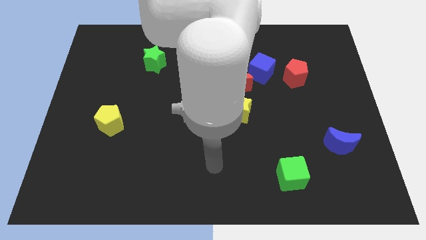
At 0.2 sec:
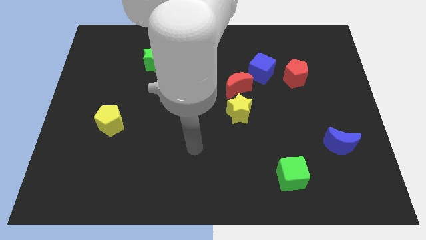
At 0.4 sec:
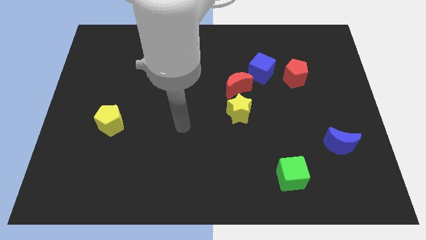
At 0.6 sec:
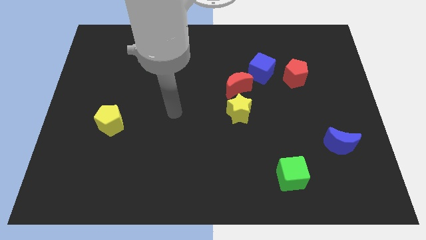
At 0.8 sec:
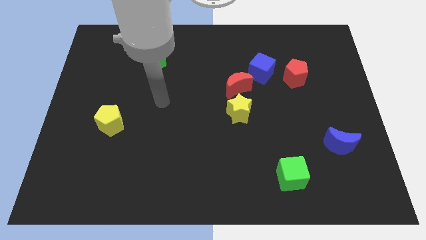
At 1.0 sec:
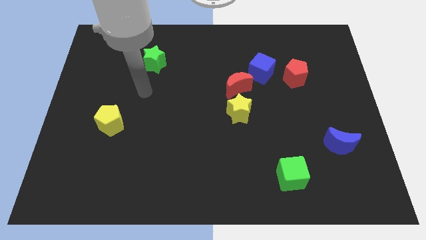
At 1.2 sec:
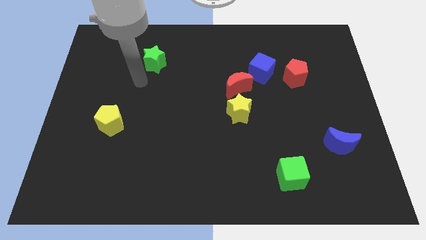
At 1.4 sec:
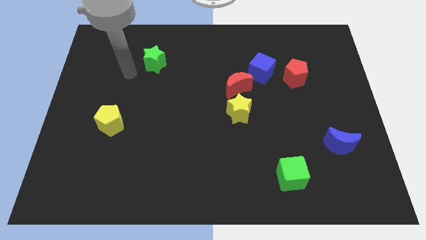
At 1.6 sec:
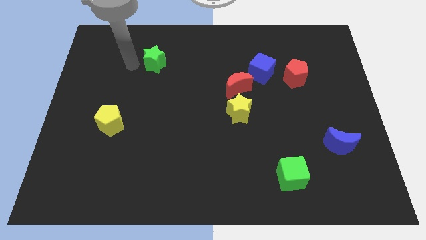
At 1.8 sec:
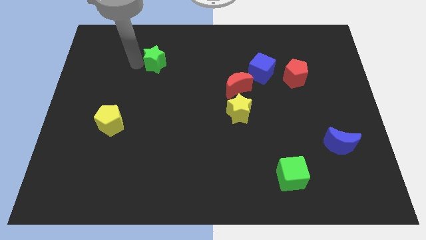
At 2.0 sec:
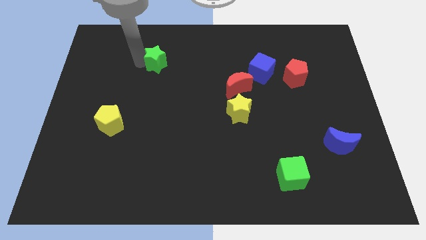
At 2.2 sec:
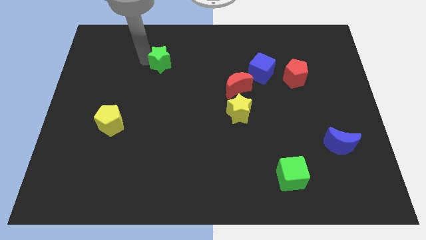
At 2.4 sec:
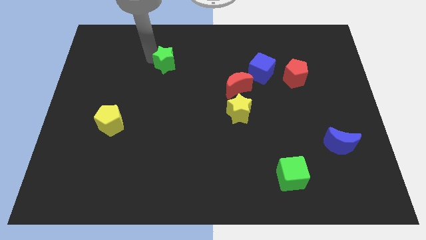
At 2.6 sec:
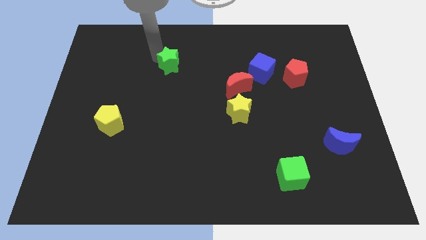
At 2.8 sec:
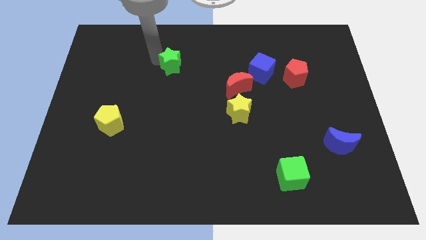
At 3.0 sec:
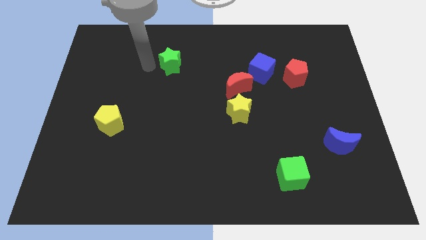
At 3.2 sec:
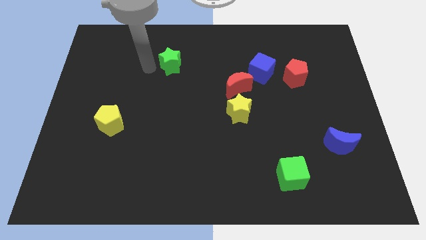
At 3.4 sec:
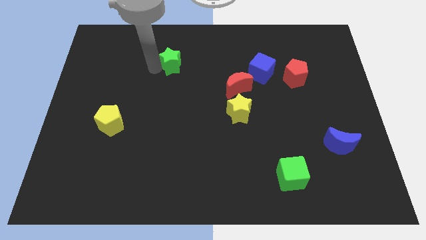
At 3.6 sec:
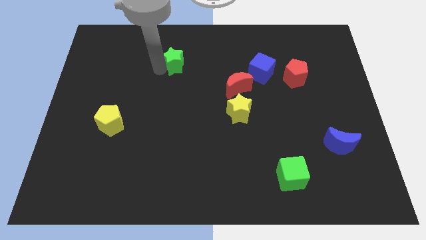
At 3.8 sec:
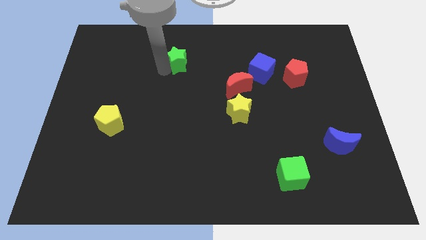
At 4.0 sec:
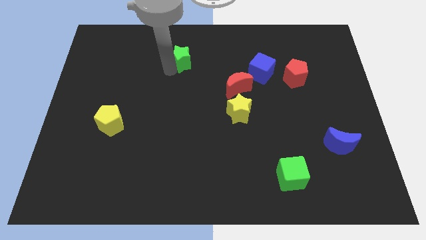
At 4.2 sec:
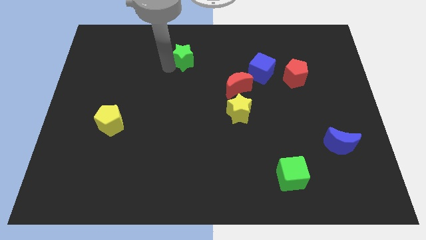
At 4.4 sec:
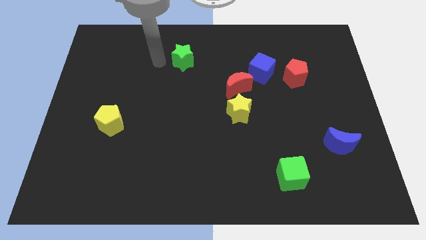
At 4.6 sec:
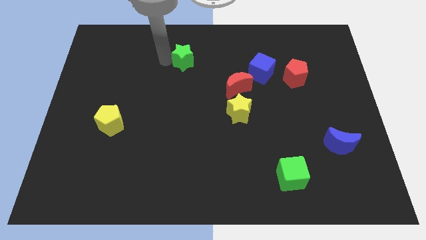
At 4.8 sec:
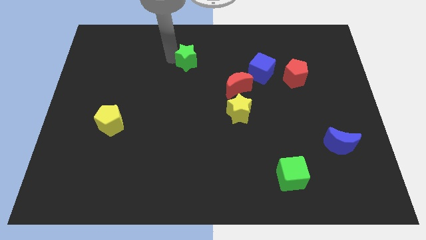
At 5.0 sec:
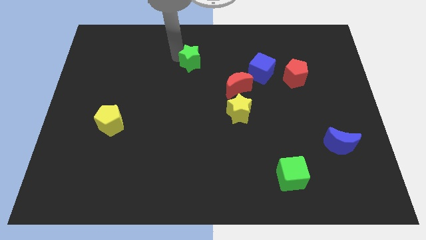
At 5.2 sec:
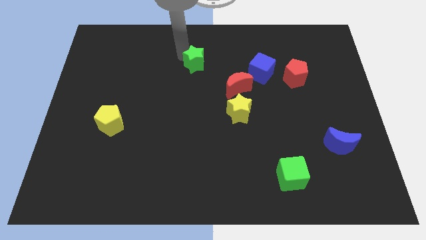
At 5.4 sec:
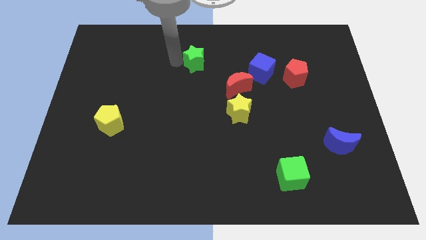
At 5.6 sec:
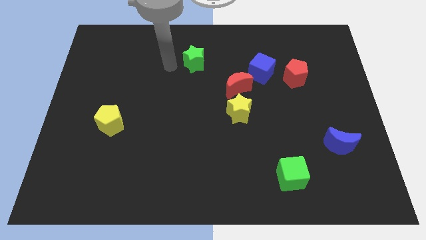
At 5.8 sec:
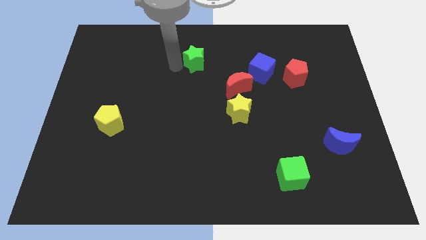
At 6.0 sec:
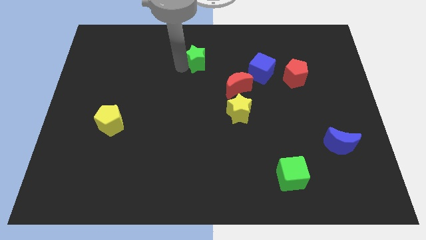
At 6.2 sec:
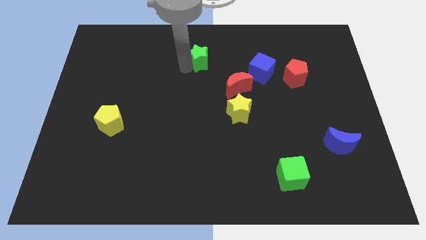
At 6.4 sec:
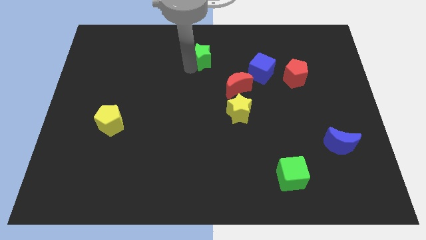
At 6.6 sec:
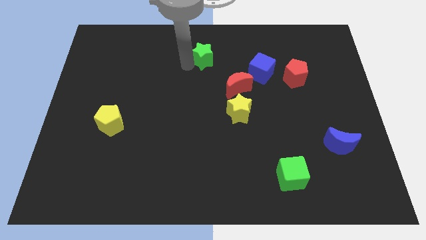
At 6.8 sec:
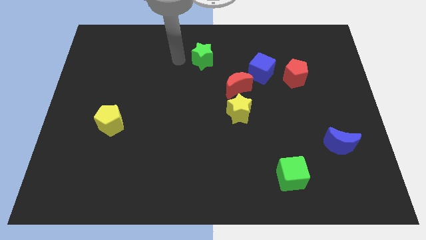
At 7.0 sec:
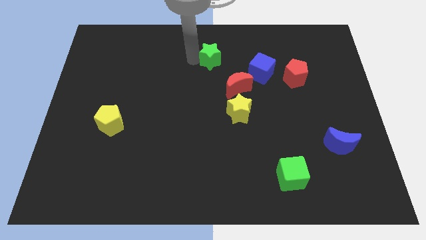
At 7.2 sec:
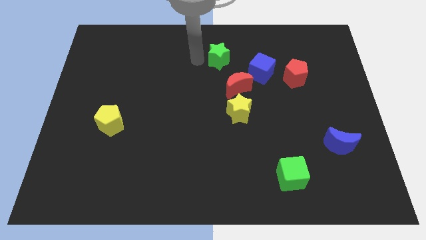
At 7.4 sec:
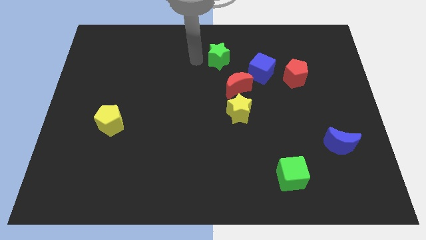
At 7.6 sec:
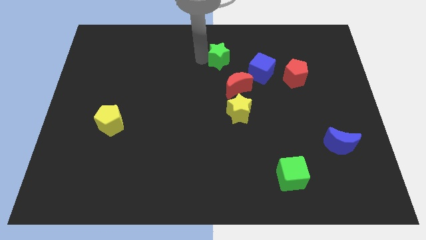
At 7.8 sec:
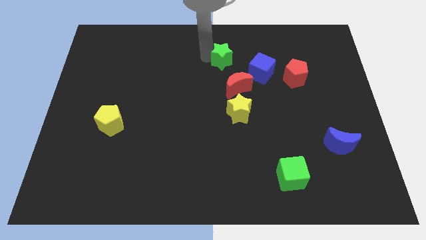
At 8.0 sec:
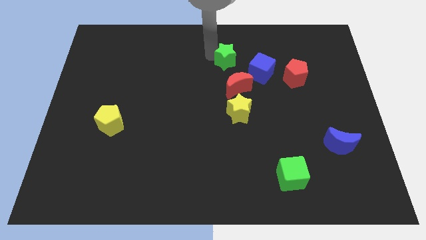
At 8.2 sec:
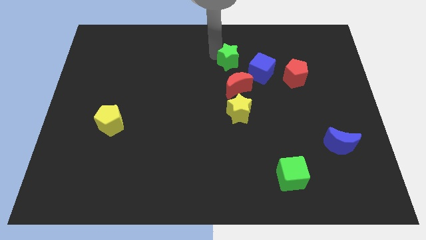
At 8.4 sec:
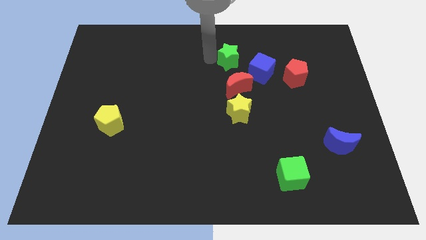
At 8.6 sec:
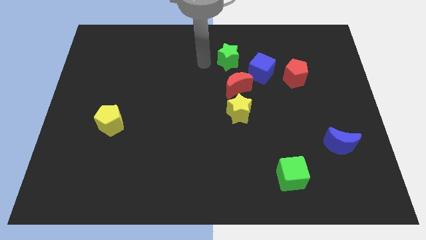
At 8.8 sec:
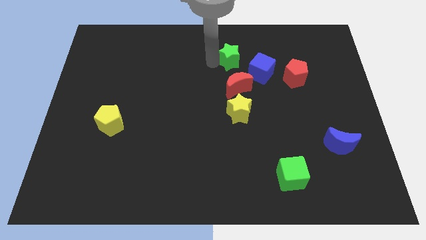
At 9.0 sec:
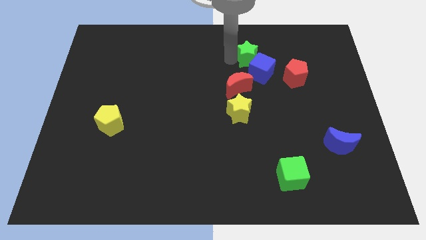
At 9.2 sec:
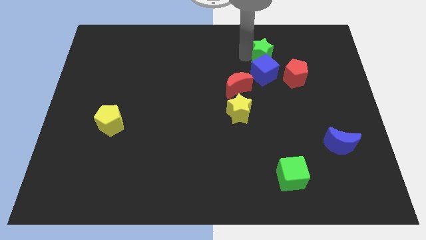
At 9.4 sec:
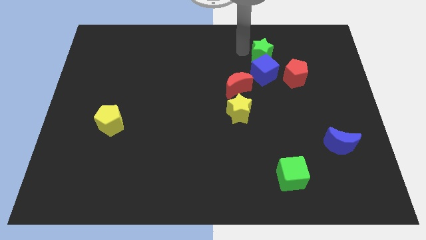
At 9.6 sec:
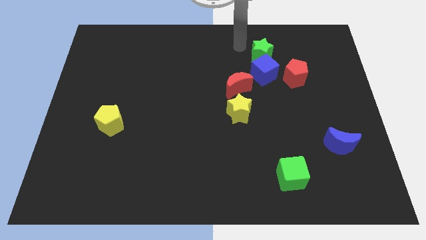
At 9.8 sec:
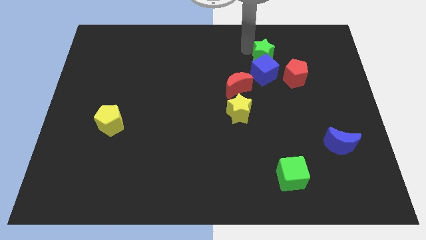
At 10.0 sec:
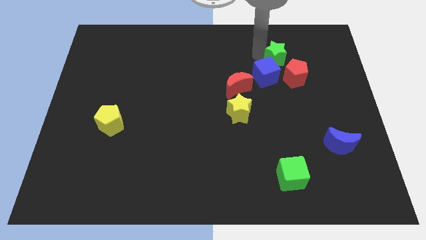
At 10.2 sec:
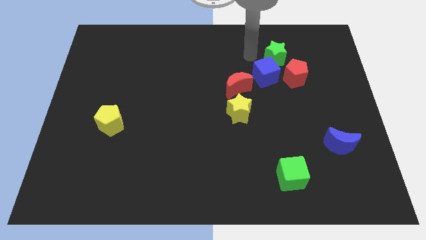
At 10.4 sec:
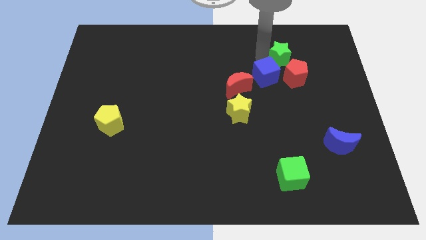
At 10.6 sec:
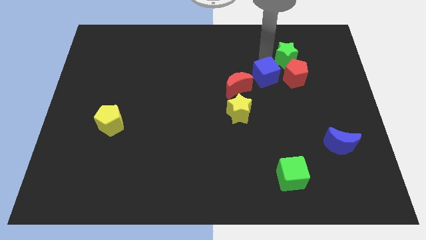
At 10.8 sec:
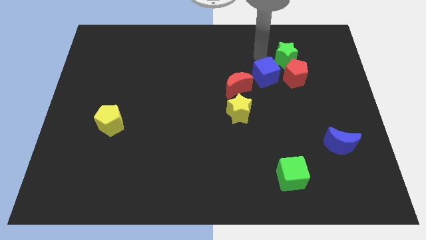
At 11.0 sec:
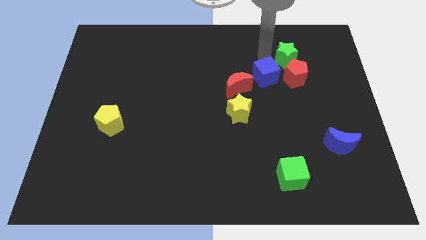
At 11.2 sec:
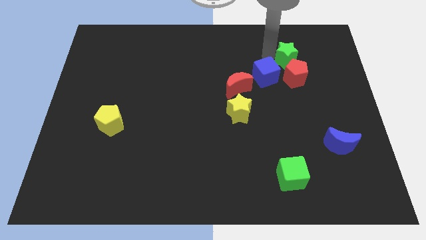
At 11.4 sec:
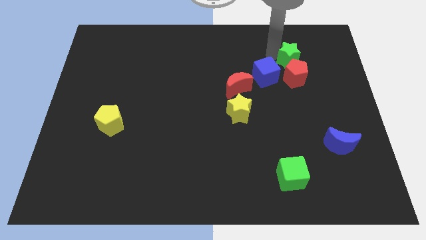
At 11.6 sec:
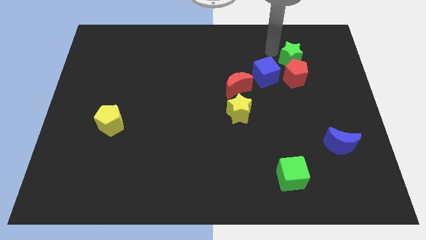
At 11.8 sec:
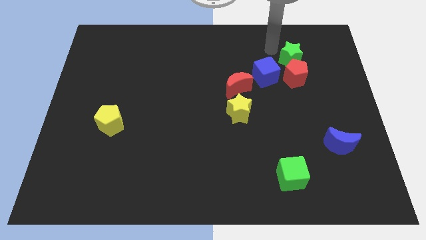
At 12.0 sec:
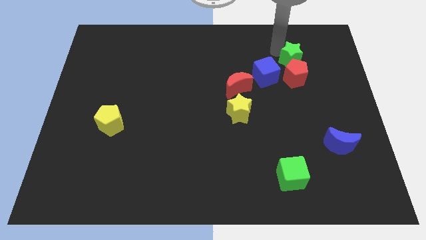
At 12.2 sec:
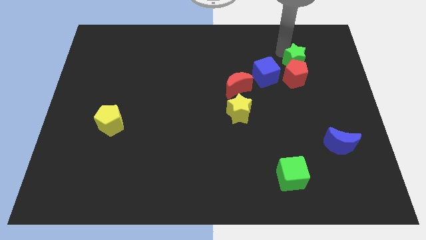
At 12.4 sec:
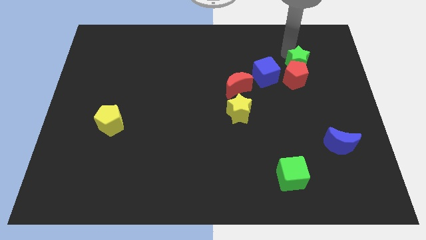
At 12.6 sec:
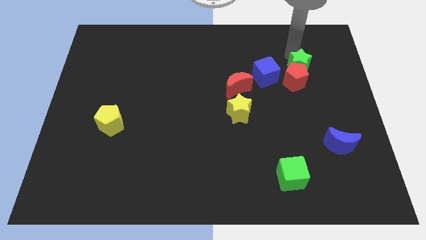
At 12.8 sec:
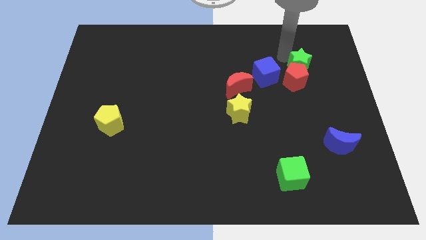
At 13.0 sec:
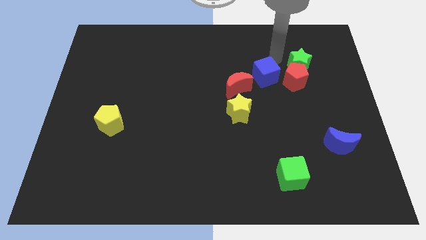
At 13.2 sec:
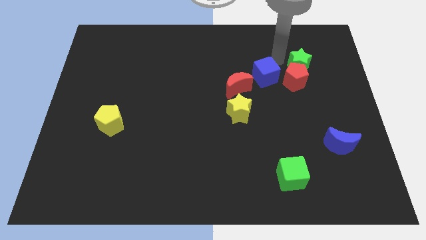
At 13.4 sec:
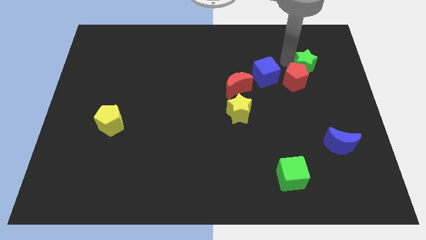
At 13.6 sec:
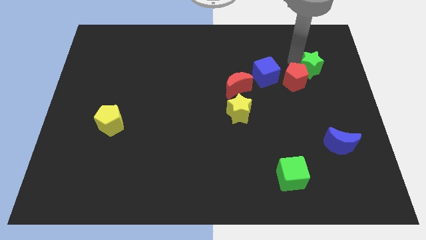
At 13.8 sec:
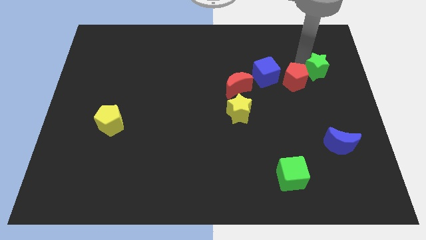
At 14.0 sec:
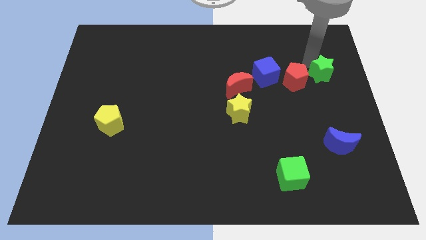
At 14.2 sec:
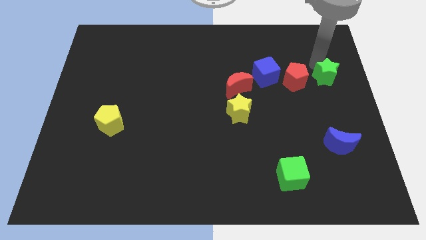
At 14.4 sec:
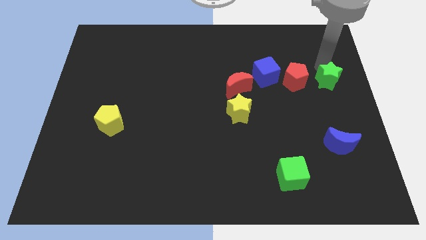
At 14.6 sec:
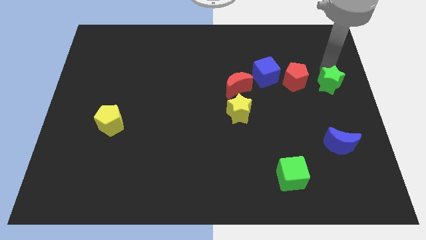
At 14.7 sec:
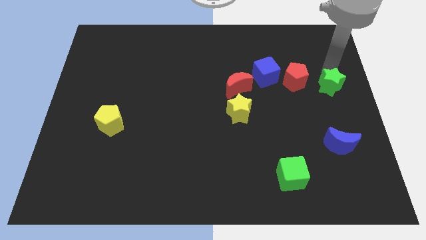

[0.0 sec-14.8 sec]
put the green star diagonally down and to the right of the red pentagon
